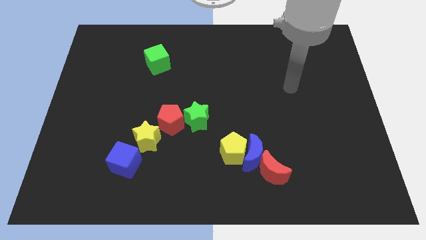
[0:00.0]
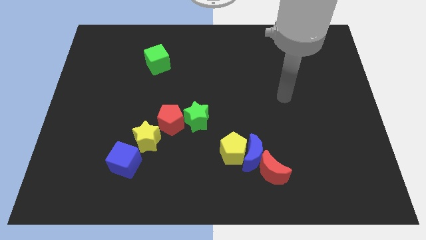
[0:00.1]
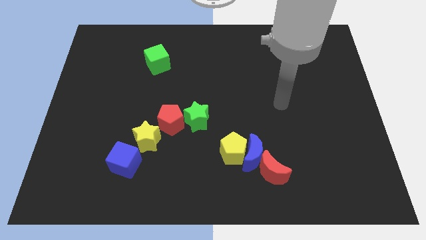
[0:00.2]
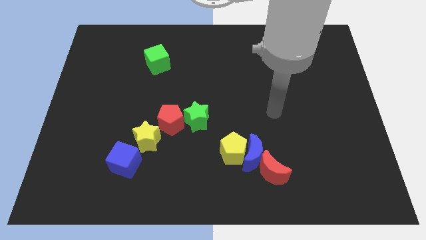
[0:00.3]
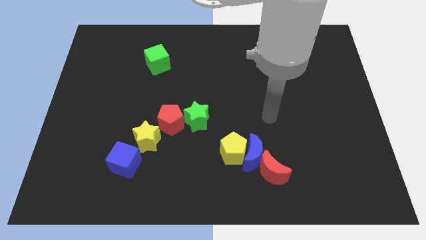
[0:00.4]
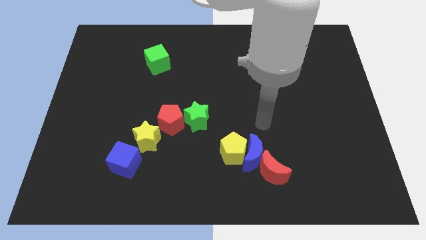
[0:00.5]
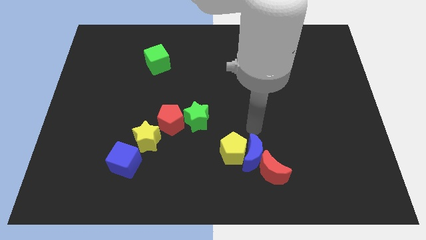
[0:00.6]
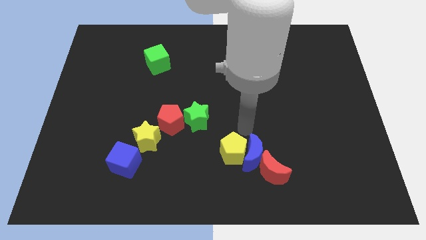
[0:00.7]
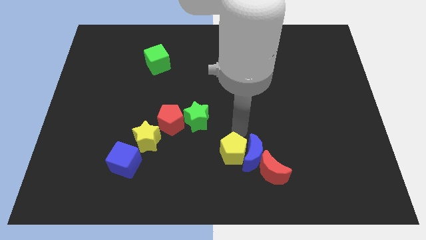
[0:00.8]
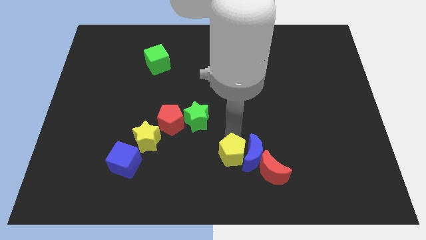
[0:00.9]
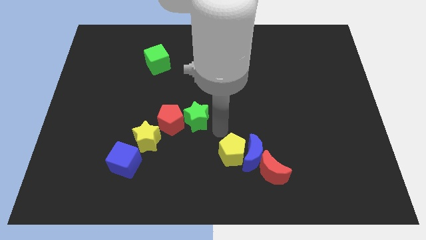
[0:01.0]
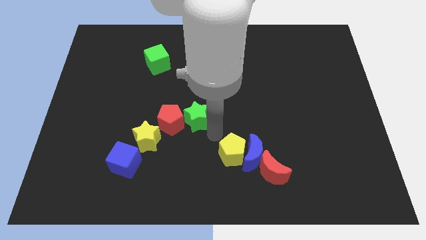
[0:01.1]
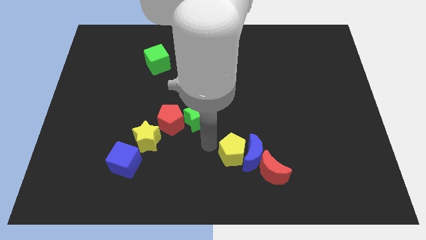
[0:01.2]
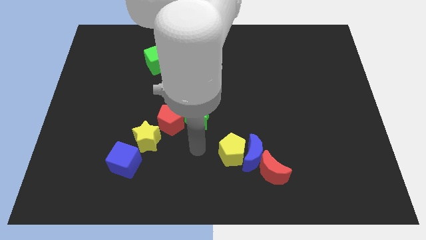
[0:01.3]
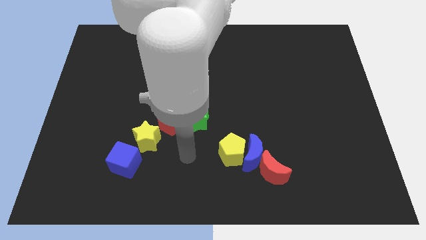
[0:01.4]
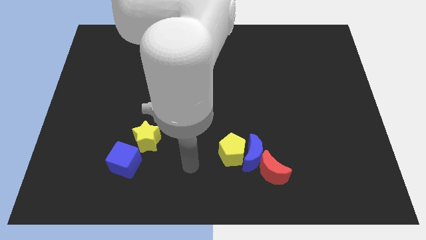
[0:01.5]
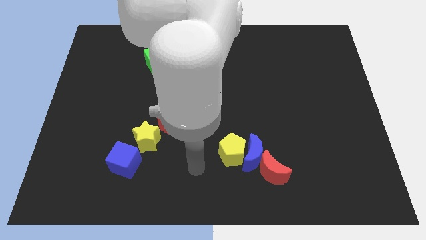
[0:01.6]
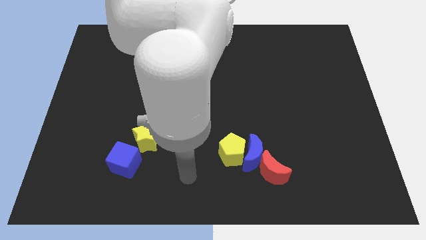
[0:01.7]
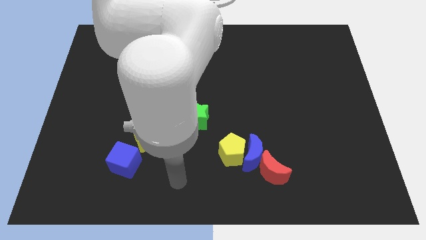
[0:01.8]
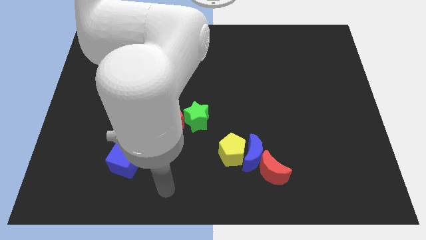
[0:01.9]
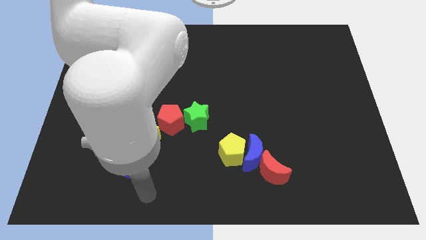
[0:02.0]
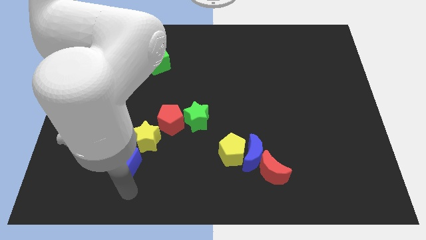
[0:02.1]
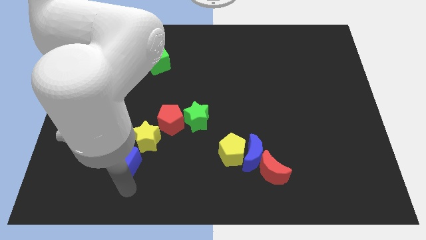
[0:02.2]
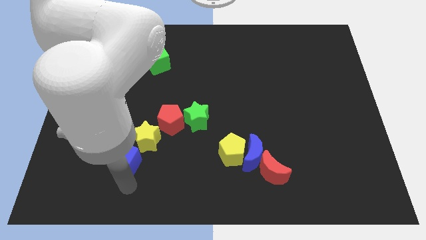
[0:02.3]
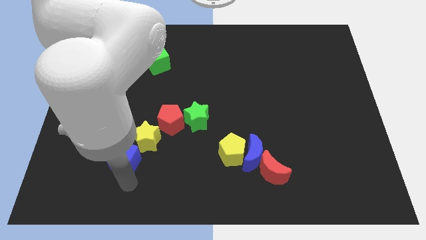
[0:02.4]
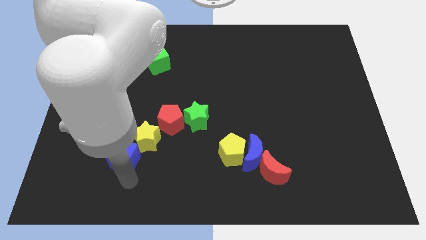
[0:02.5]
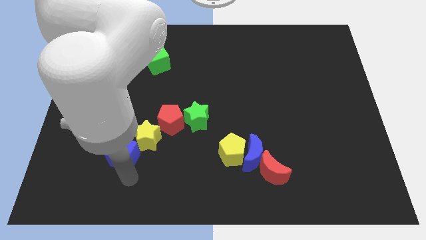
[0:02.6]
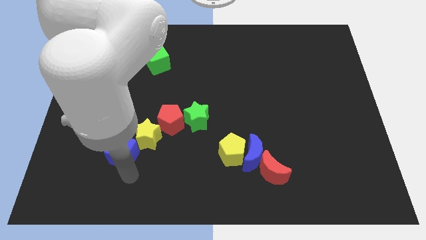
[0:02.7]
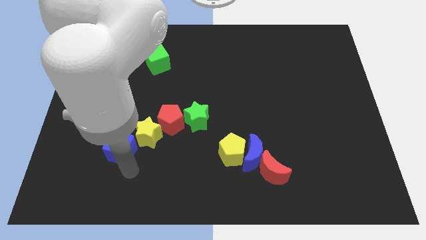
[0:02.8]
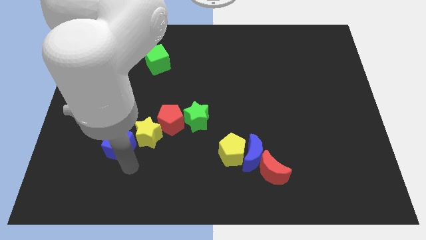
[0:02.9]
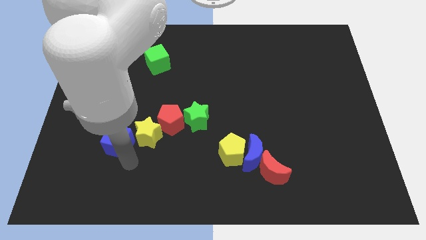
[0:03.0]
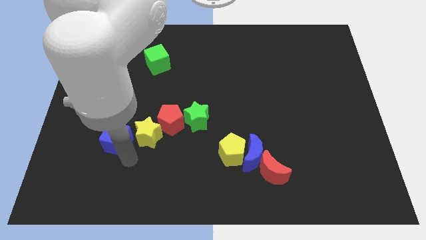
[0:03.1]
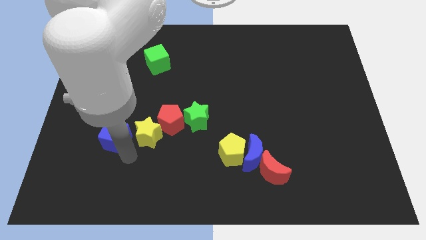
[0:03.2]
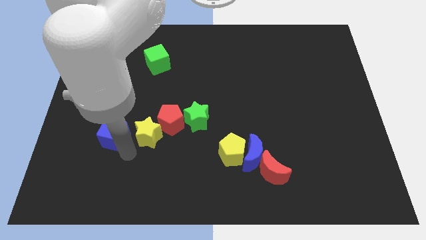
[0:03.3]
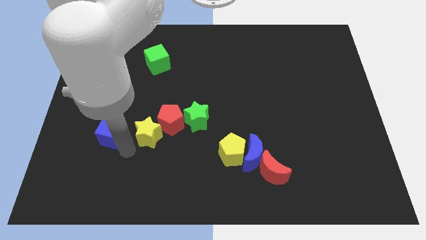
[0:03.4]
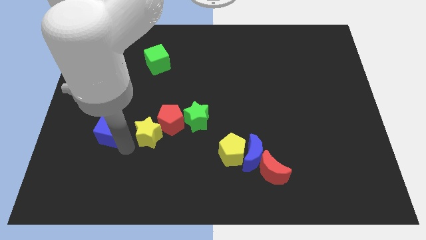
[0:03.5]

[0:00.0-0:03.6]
slide the blue cube a little bit up

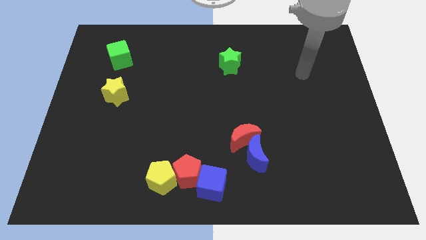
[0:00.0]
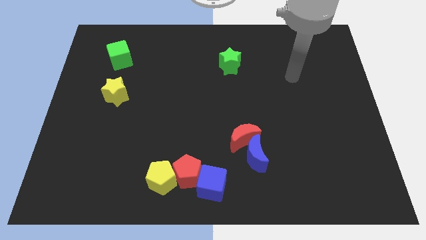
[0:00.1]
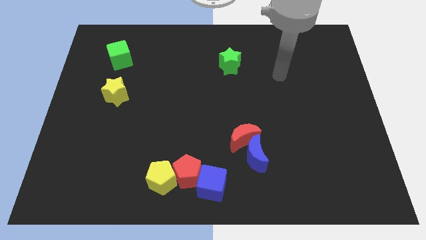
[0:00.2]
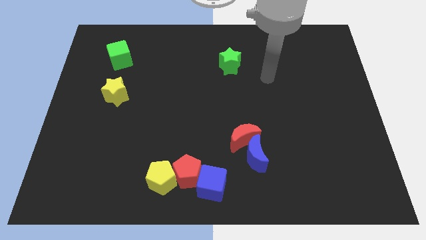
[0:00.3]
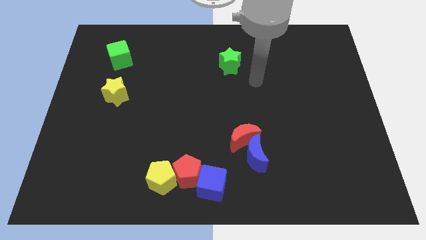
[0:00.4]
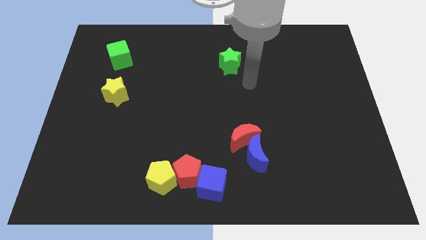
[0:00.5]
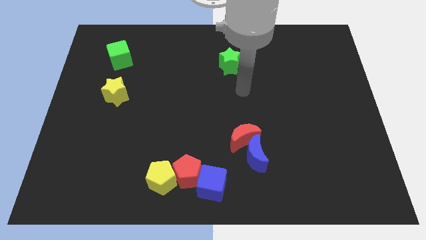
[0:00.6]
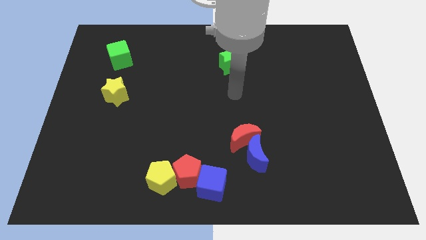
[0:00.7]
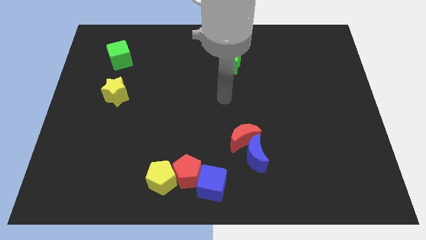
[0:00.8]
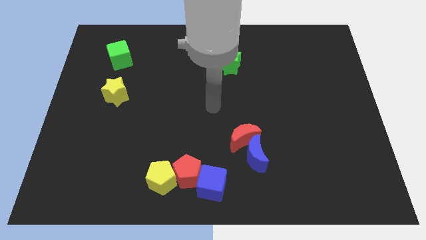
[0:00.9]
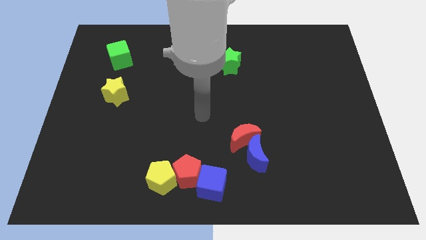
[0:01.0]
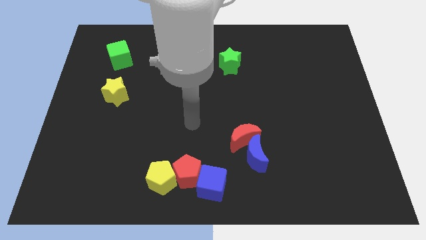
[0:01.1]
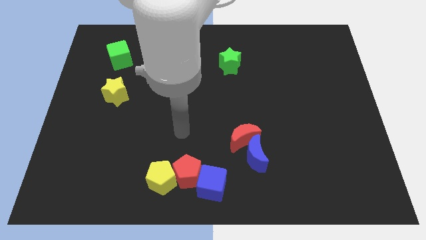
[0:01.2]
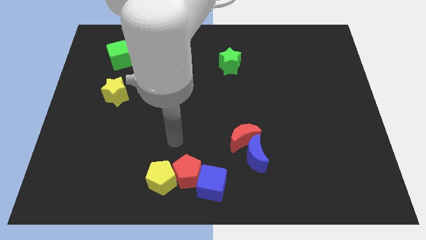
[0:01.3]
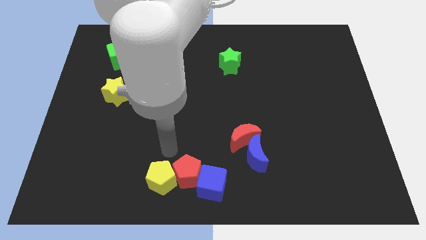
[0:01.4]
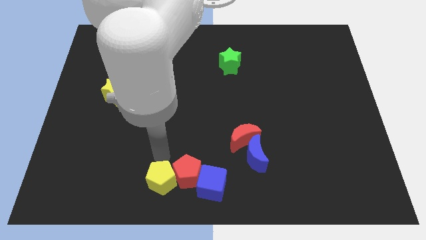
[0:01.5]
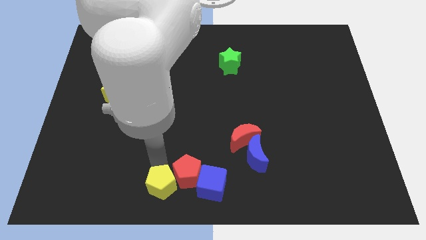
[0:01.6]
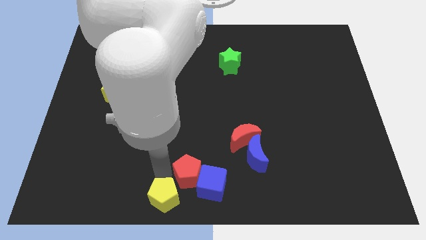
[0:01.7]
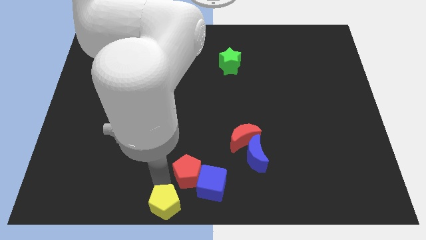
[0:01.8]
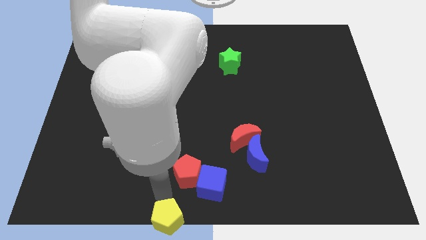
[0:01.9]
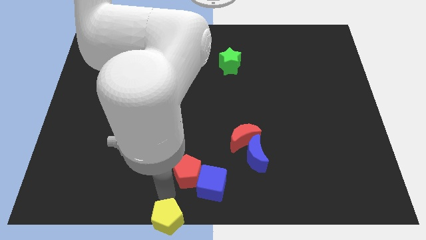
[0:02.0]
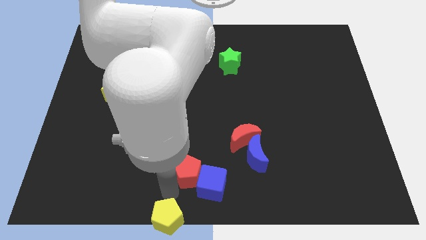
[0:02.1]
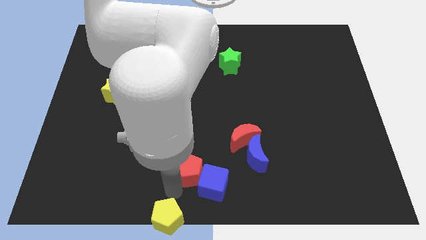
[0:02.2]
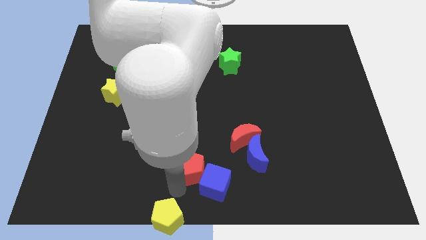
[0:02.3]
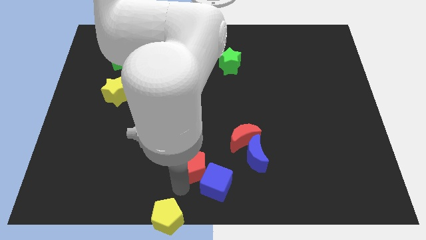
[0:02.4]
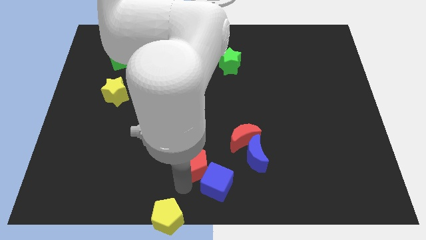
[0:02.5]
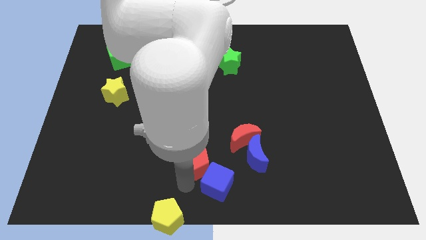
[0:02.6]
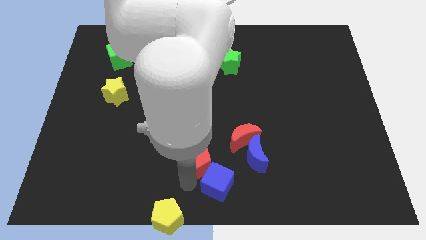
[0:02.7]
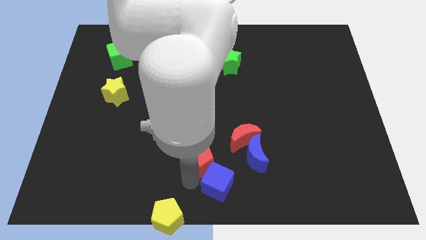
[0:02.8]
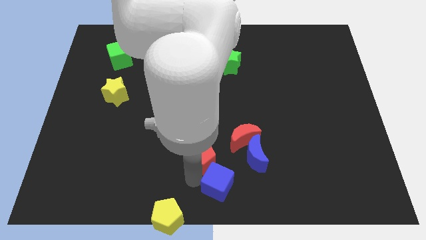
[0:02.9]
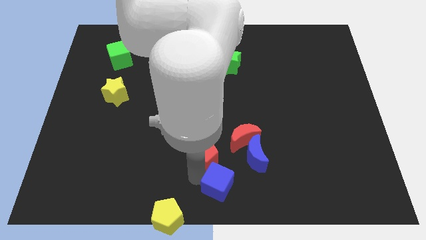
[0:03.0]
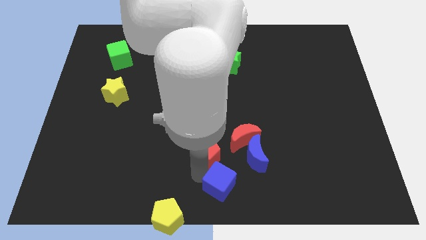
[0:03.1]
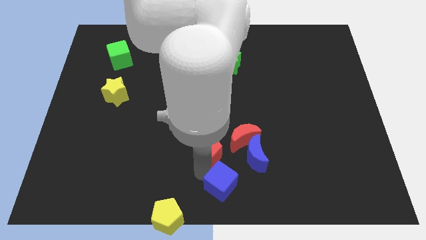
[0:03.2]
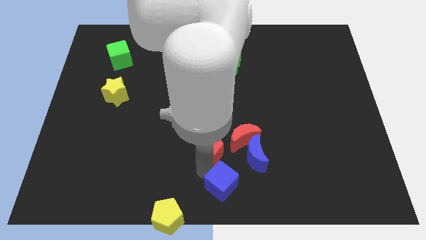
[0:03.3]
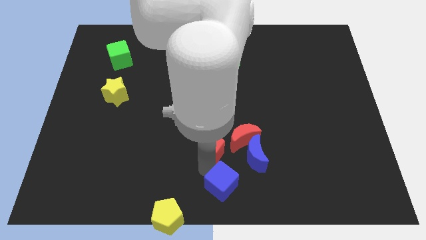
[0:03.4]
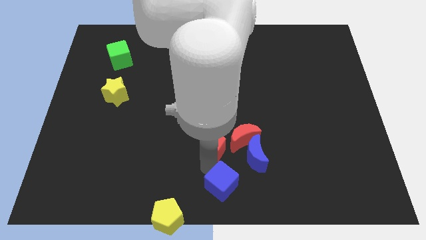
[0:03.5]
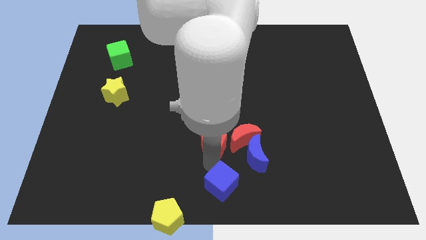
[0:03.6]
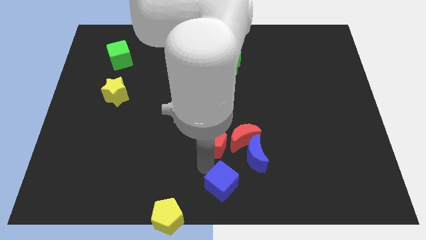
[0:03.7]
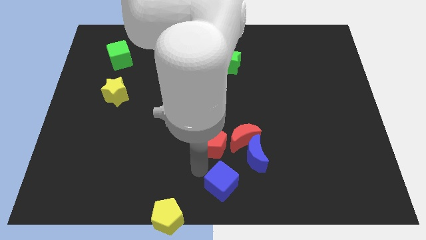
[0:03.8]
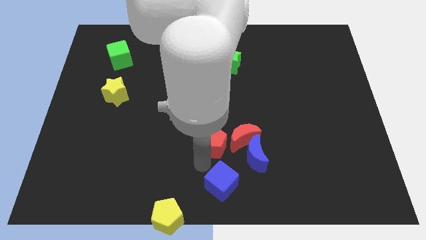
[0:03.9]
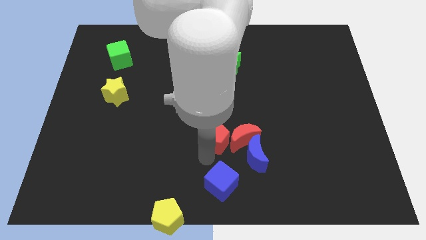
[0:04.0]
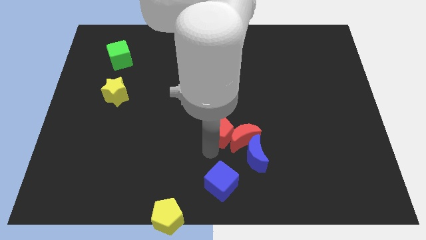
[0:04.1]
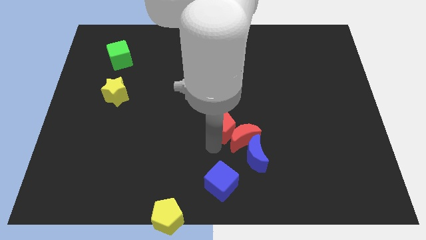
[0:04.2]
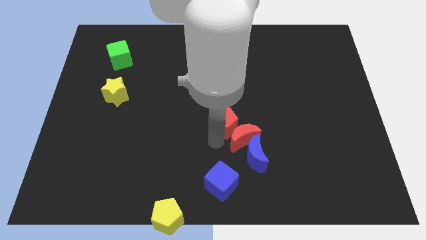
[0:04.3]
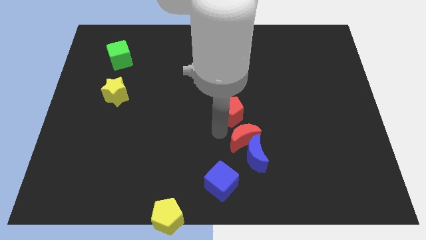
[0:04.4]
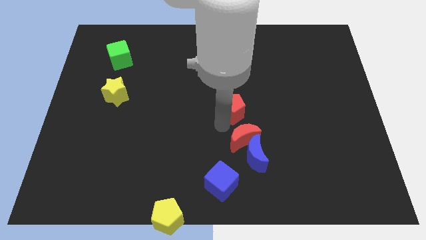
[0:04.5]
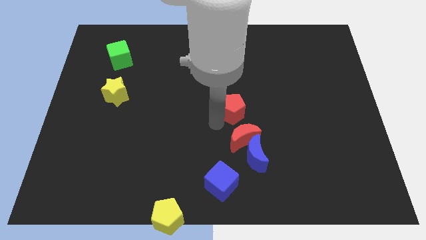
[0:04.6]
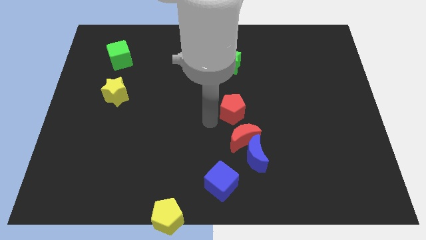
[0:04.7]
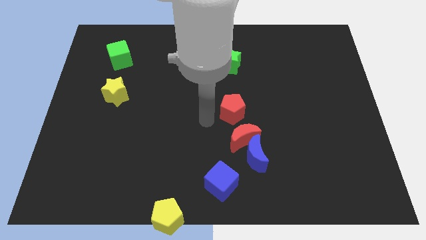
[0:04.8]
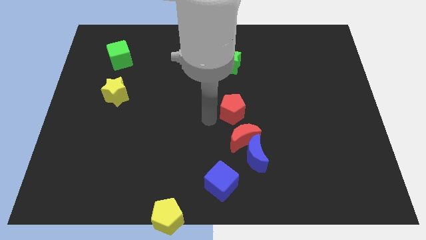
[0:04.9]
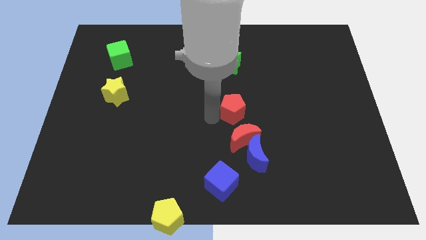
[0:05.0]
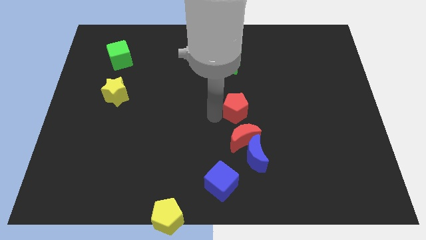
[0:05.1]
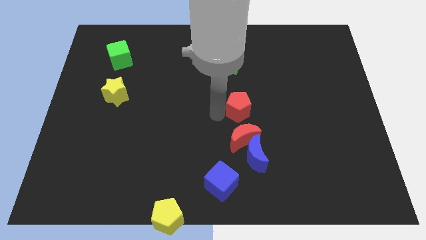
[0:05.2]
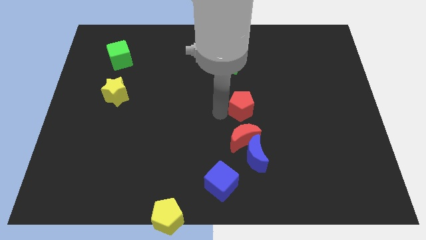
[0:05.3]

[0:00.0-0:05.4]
slide the red pentagon up and then right
